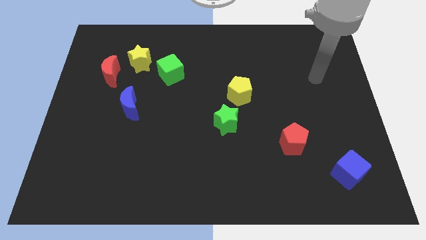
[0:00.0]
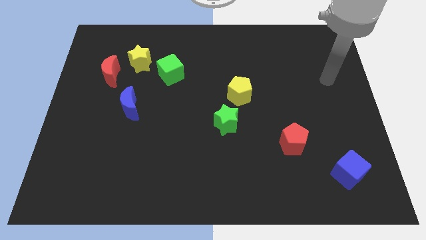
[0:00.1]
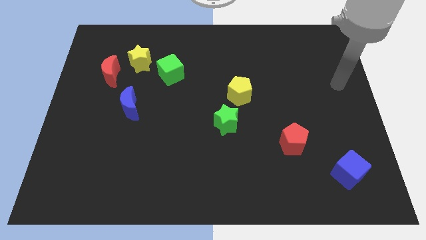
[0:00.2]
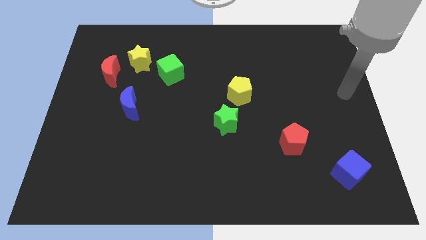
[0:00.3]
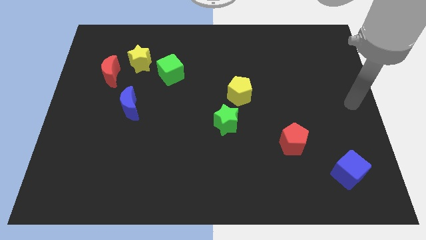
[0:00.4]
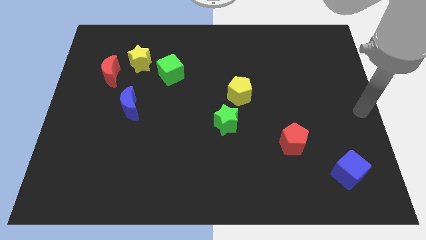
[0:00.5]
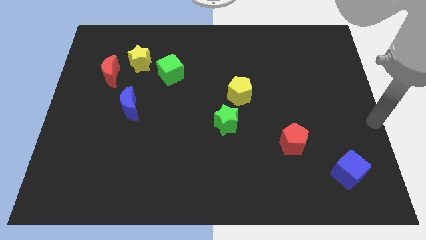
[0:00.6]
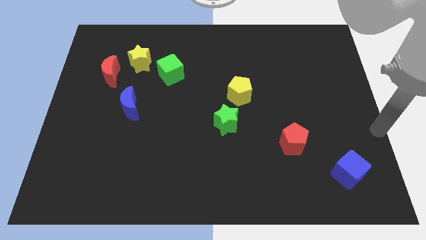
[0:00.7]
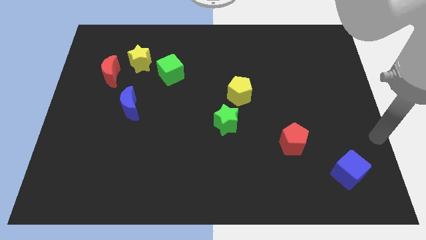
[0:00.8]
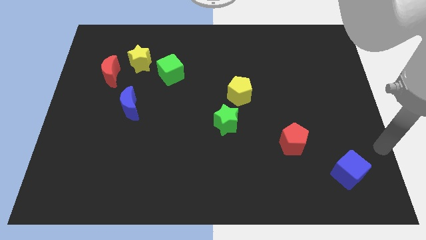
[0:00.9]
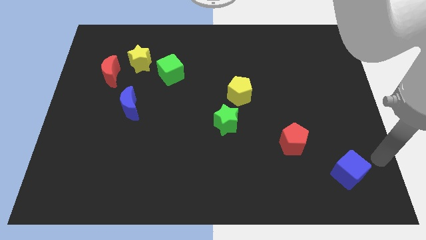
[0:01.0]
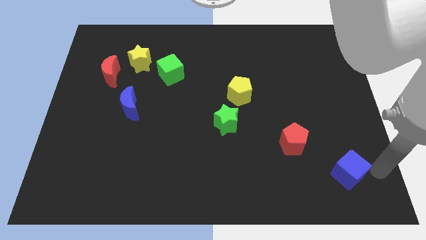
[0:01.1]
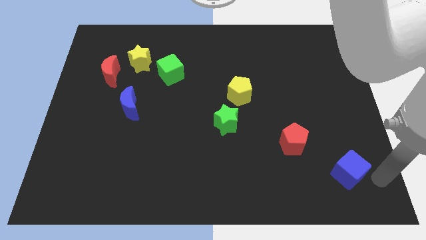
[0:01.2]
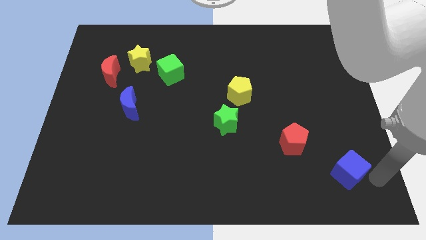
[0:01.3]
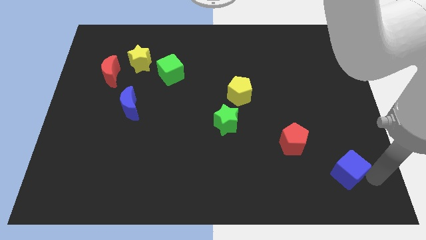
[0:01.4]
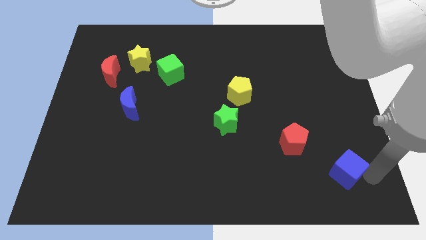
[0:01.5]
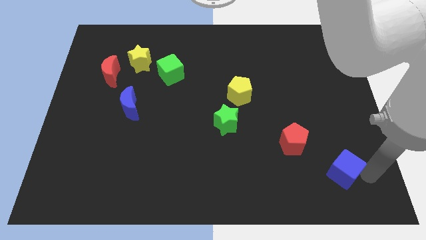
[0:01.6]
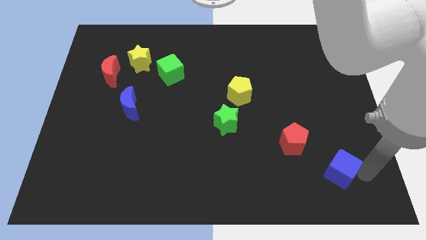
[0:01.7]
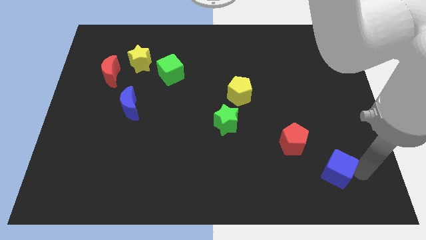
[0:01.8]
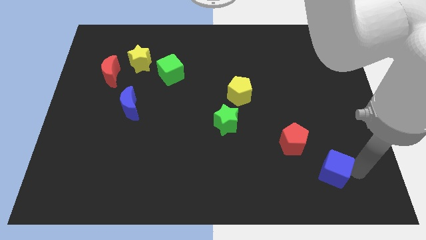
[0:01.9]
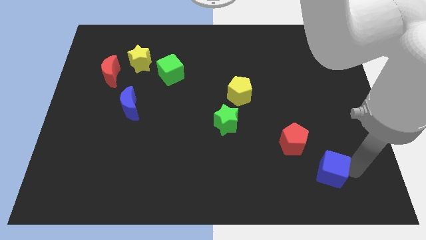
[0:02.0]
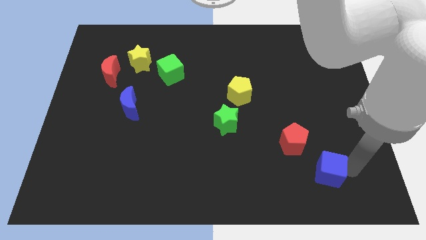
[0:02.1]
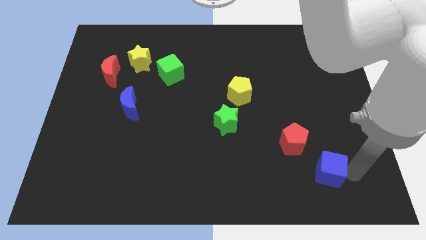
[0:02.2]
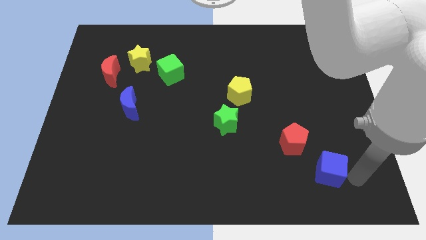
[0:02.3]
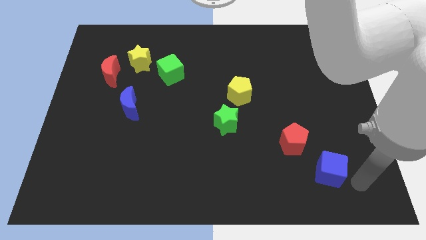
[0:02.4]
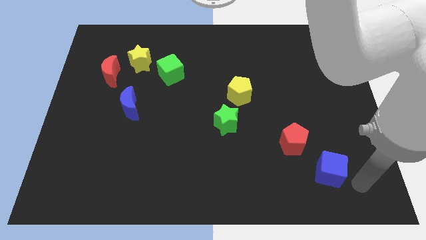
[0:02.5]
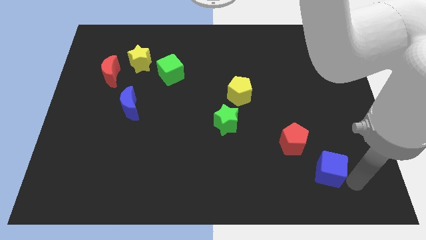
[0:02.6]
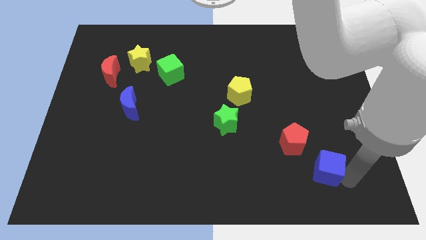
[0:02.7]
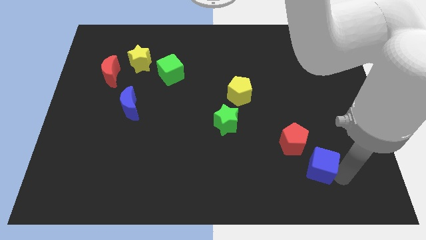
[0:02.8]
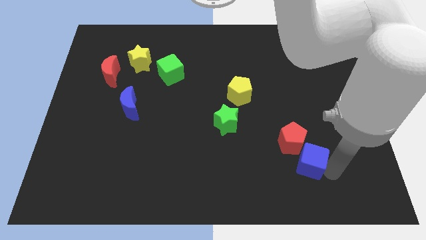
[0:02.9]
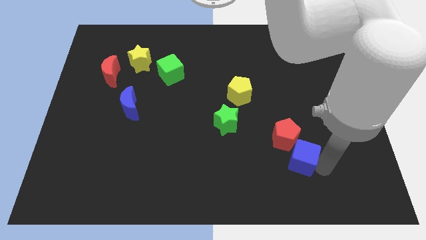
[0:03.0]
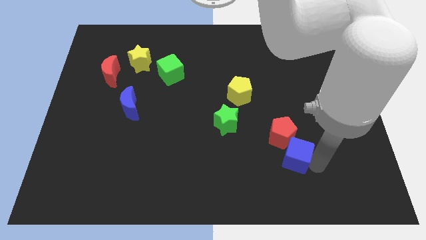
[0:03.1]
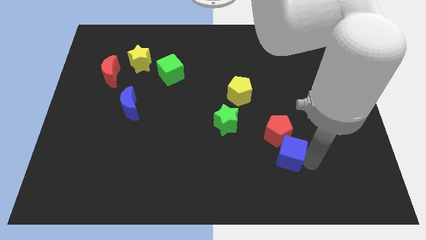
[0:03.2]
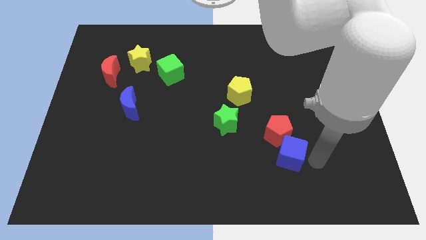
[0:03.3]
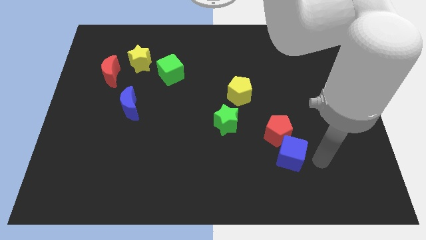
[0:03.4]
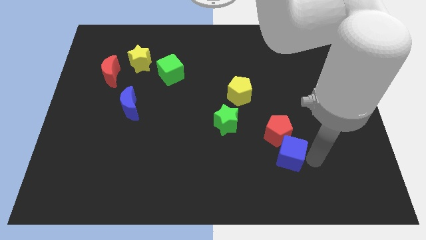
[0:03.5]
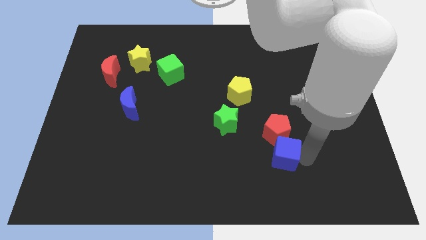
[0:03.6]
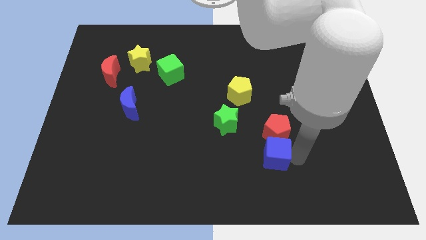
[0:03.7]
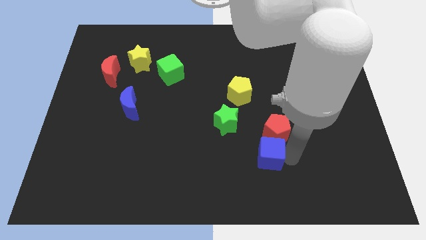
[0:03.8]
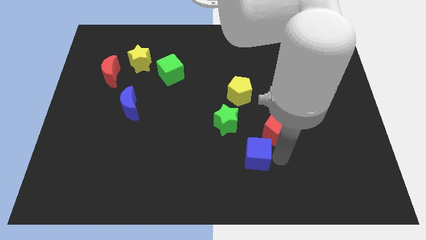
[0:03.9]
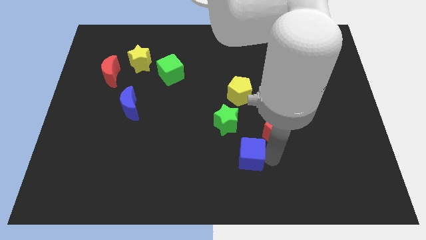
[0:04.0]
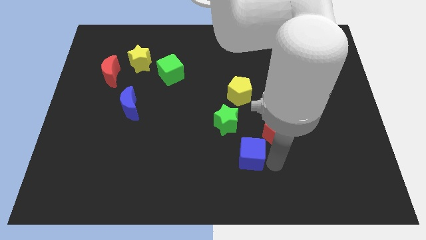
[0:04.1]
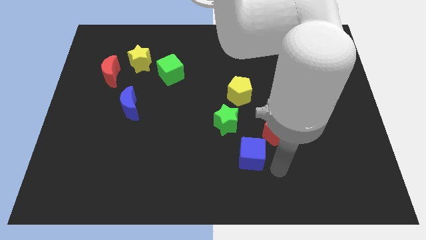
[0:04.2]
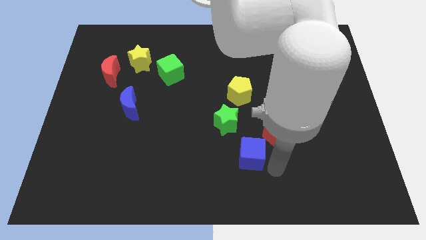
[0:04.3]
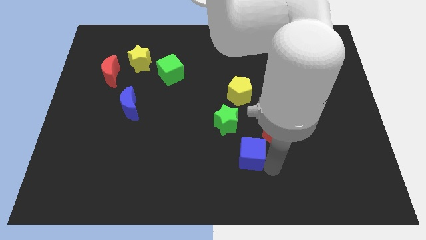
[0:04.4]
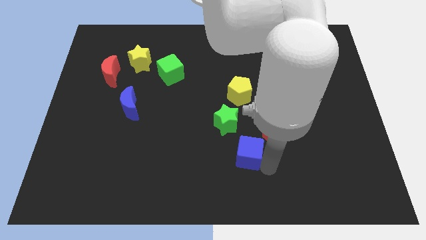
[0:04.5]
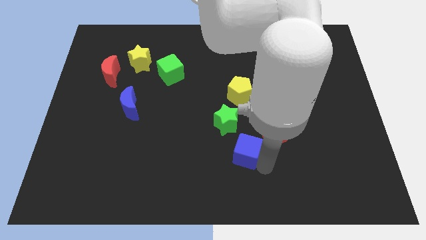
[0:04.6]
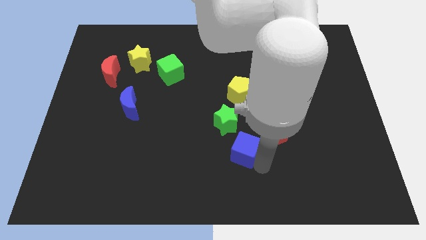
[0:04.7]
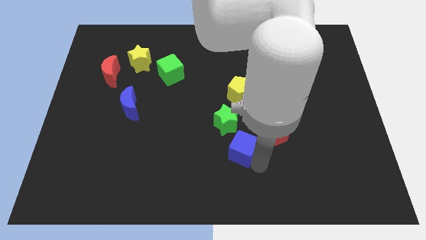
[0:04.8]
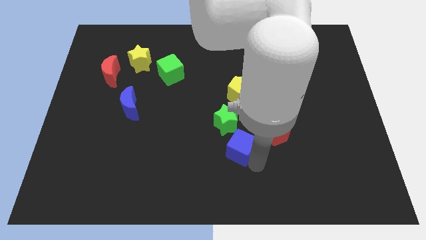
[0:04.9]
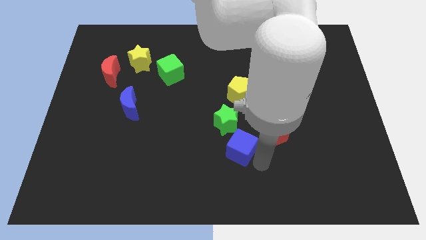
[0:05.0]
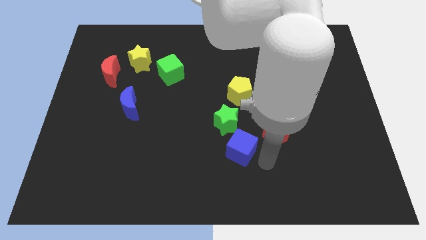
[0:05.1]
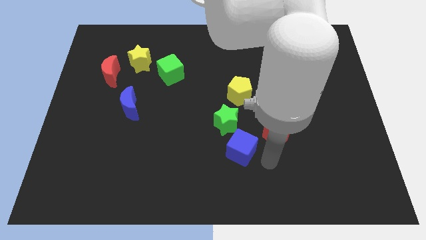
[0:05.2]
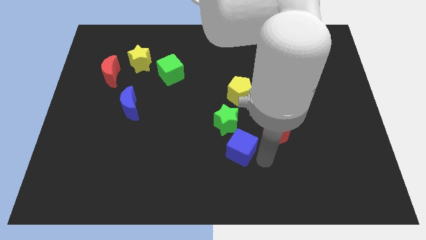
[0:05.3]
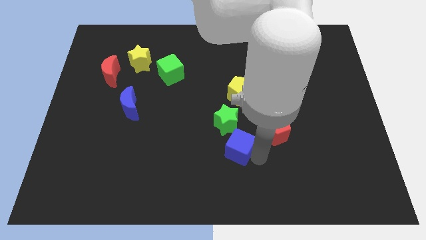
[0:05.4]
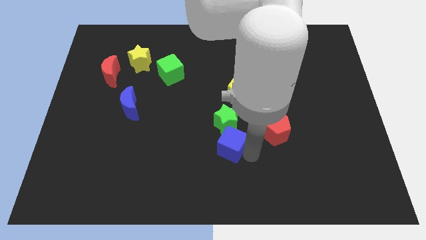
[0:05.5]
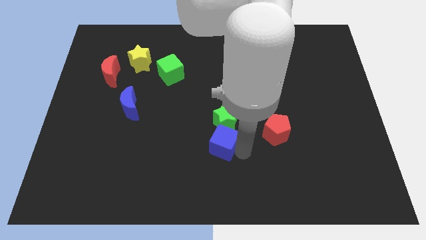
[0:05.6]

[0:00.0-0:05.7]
push the blue cube to the middle

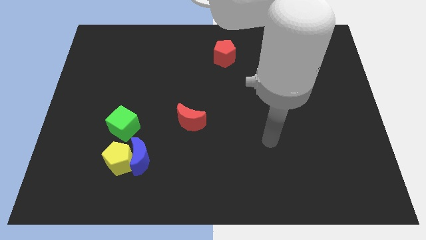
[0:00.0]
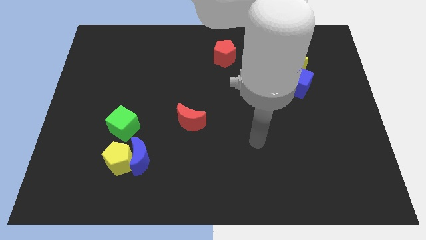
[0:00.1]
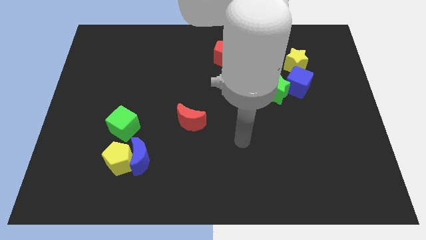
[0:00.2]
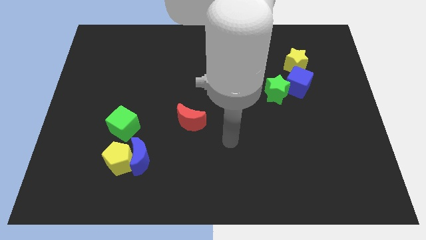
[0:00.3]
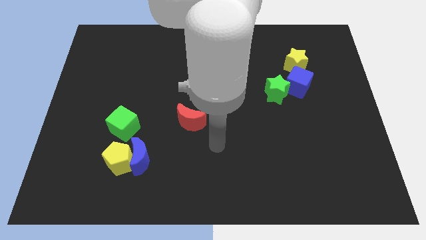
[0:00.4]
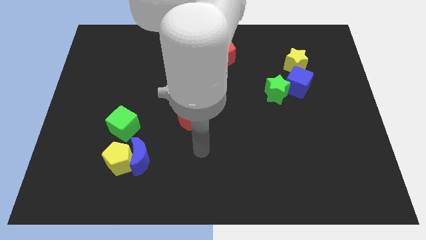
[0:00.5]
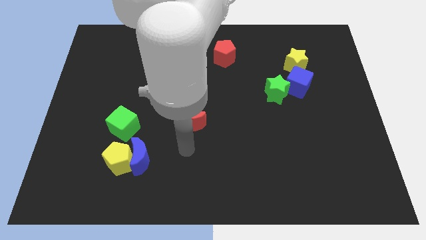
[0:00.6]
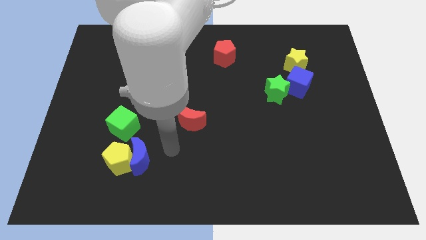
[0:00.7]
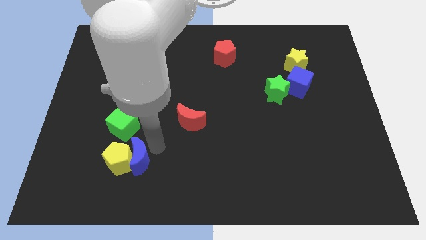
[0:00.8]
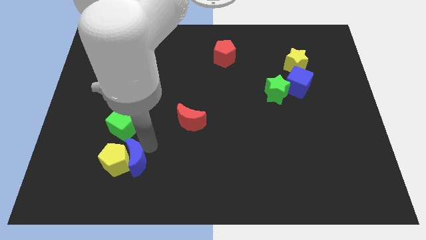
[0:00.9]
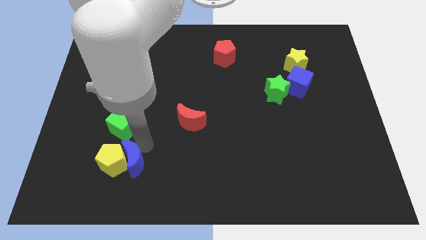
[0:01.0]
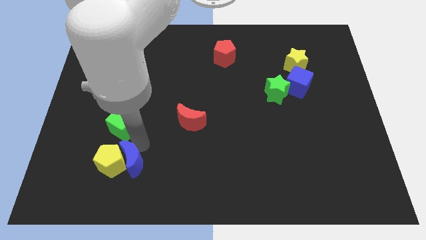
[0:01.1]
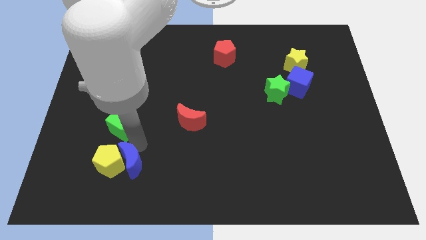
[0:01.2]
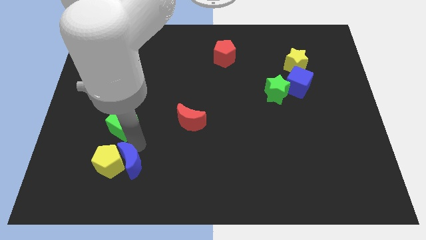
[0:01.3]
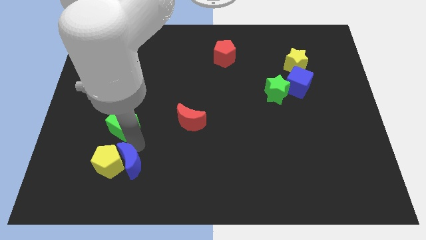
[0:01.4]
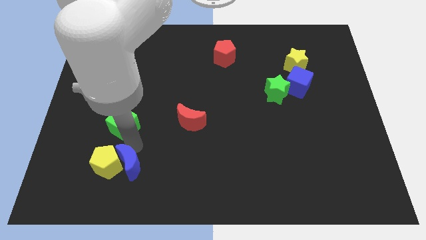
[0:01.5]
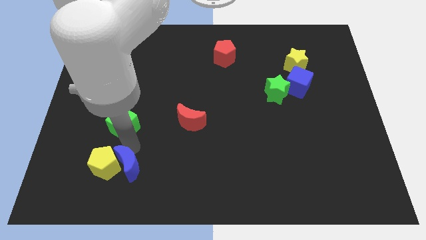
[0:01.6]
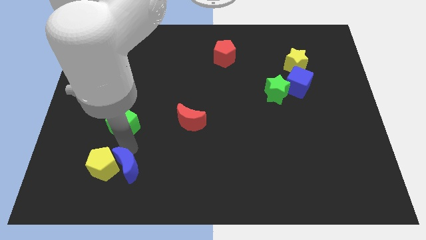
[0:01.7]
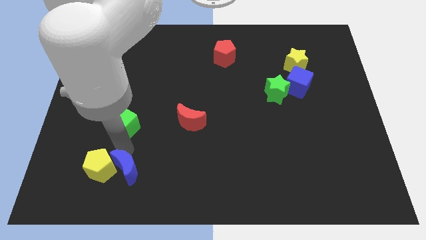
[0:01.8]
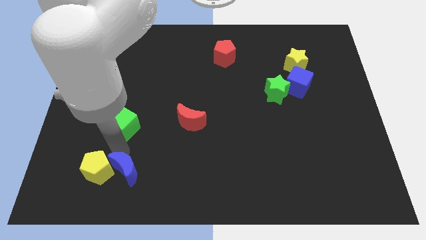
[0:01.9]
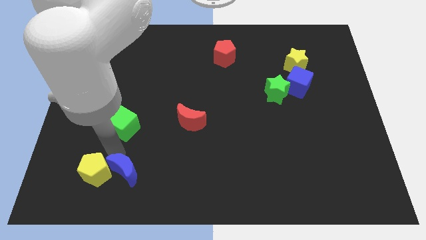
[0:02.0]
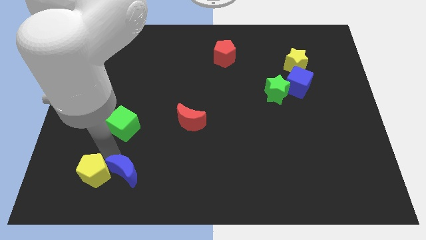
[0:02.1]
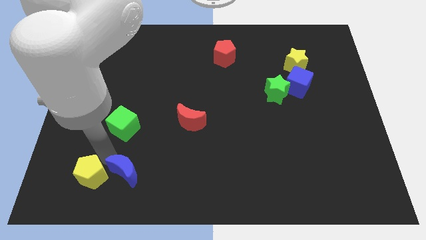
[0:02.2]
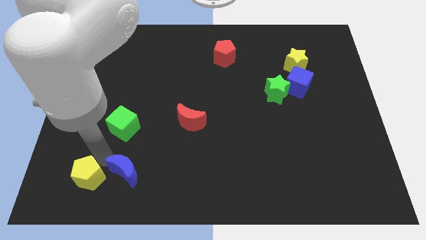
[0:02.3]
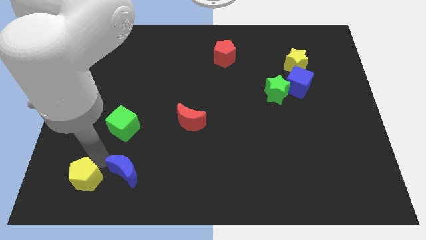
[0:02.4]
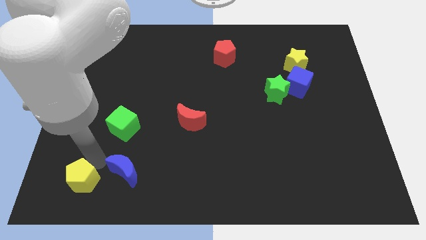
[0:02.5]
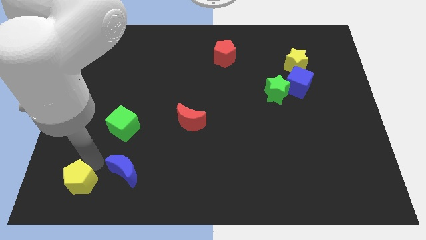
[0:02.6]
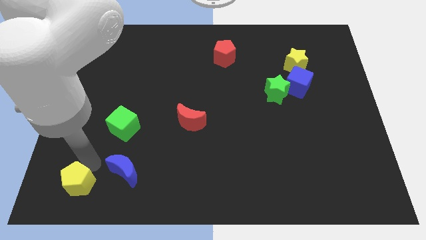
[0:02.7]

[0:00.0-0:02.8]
push the yellow pentagon to the bottom left of the board
